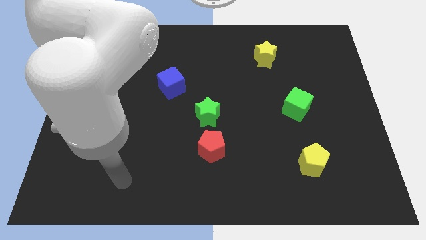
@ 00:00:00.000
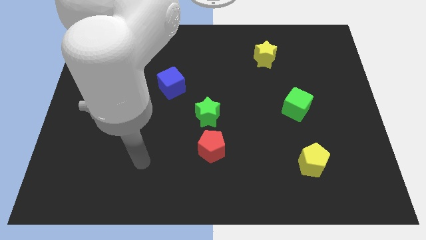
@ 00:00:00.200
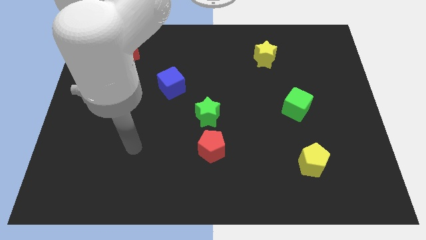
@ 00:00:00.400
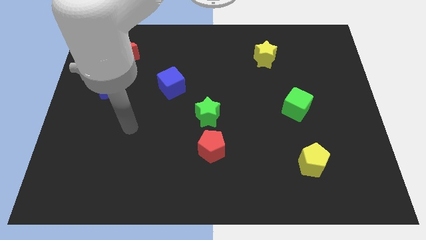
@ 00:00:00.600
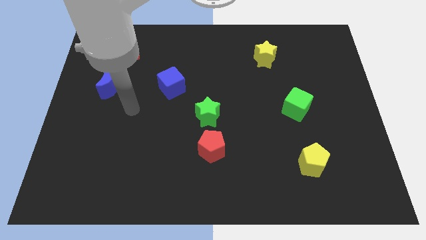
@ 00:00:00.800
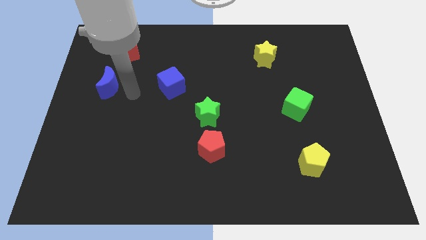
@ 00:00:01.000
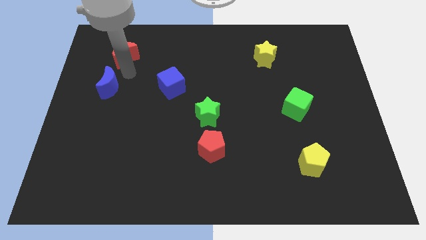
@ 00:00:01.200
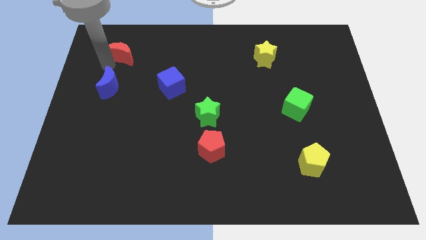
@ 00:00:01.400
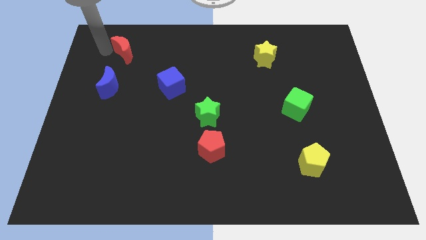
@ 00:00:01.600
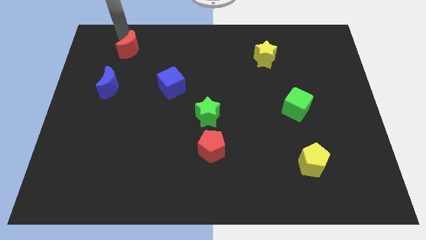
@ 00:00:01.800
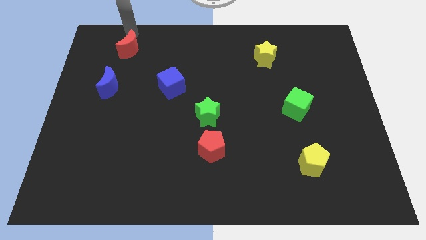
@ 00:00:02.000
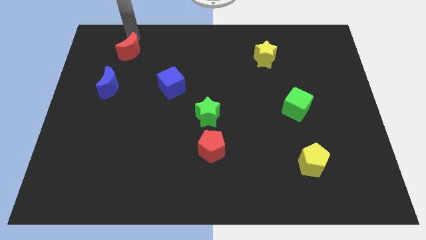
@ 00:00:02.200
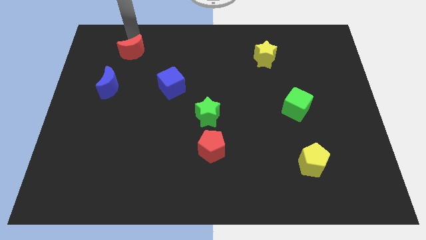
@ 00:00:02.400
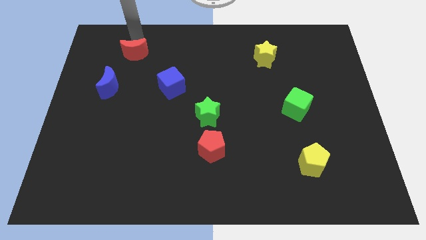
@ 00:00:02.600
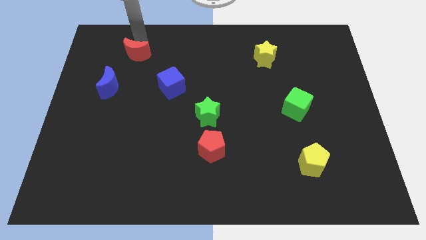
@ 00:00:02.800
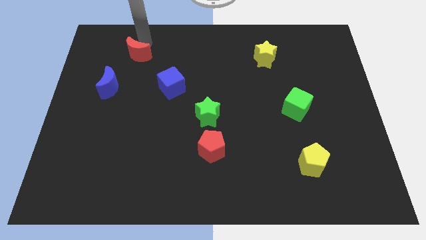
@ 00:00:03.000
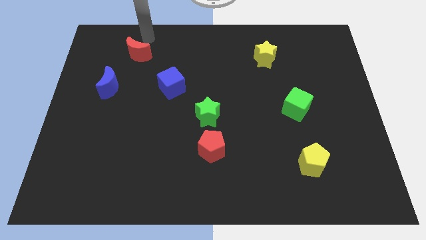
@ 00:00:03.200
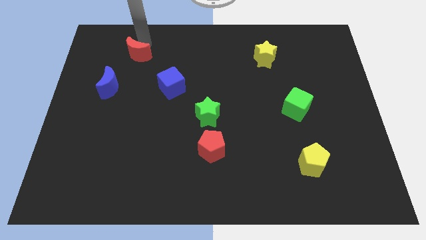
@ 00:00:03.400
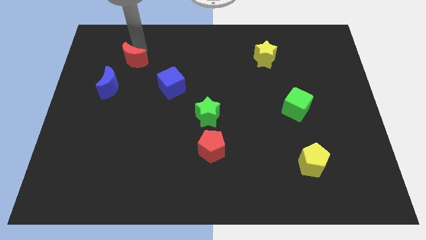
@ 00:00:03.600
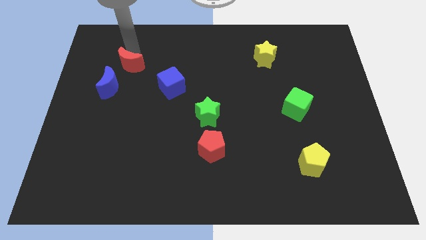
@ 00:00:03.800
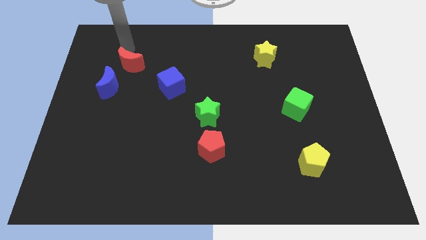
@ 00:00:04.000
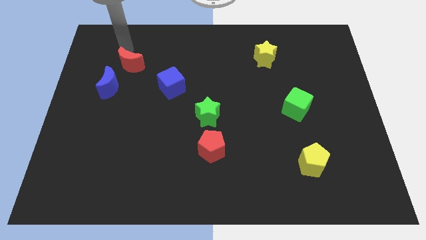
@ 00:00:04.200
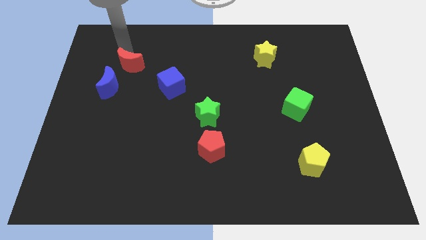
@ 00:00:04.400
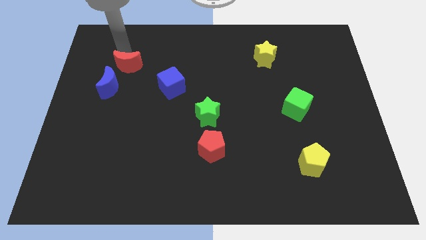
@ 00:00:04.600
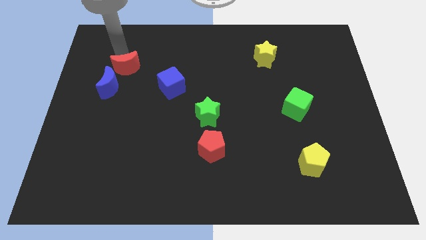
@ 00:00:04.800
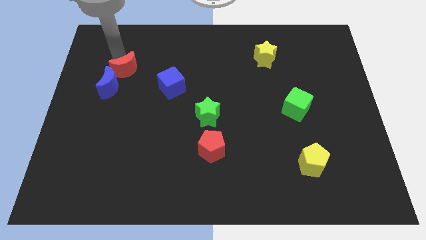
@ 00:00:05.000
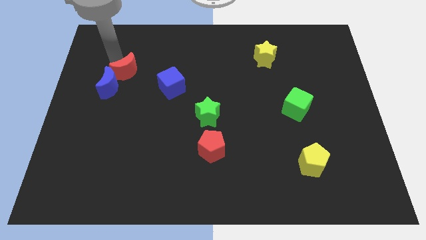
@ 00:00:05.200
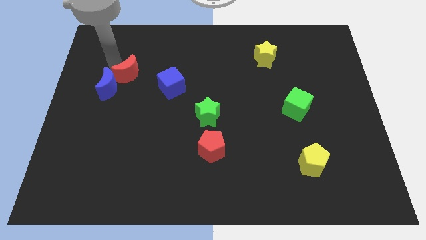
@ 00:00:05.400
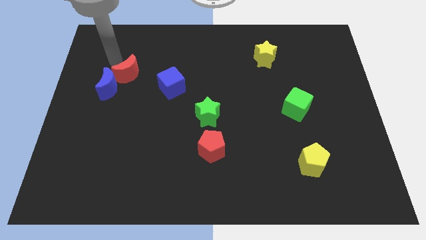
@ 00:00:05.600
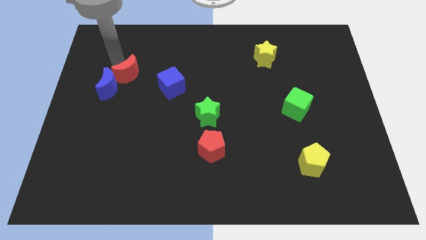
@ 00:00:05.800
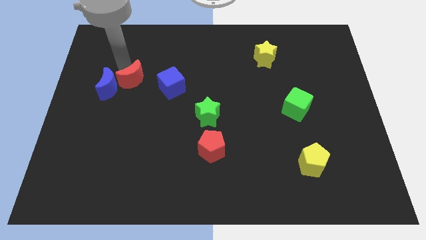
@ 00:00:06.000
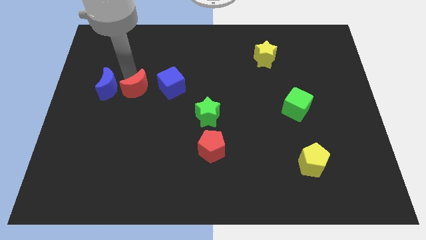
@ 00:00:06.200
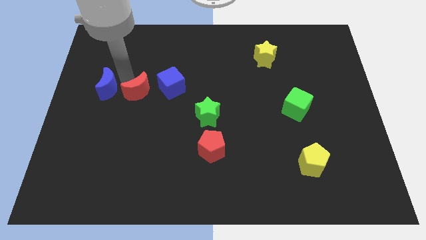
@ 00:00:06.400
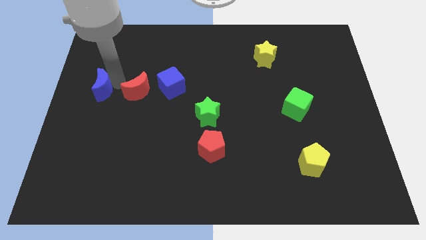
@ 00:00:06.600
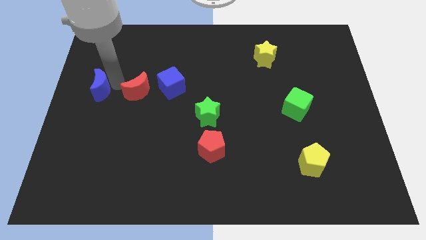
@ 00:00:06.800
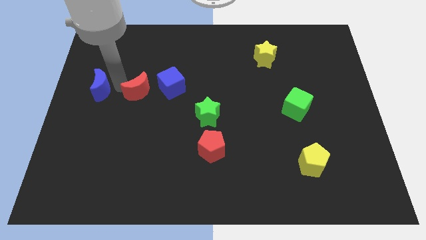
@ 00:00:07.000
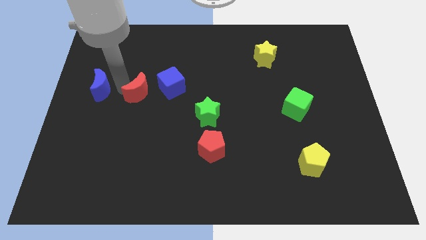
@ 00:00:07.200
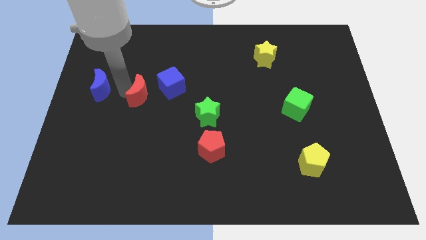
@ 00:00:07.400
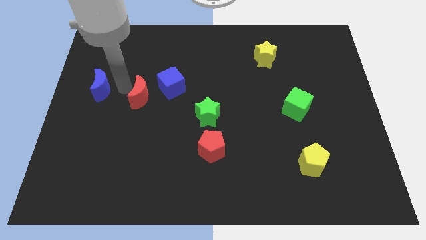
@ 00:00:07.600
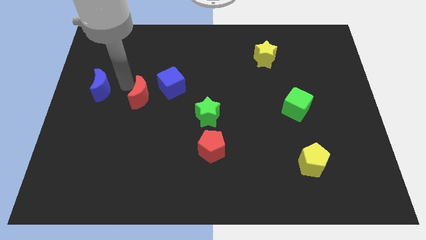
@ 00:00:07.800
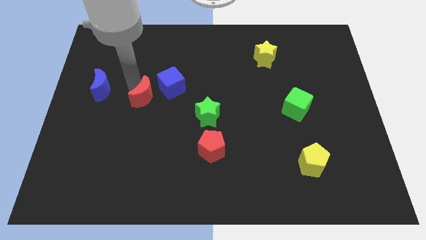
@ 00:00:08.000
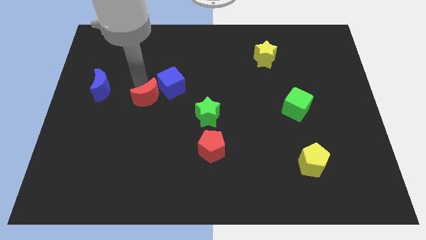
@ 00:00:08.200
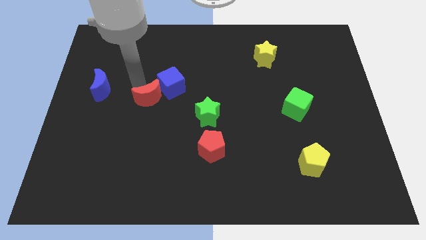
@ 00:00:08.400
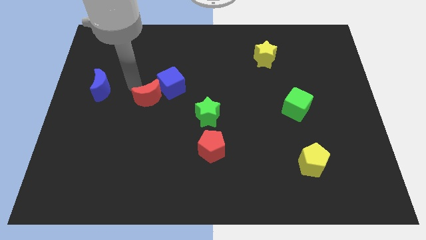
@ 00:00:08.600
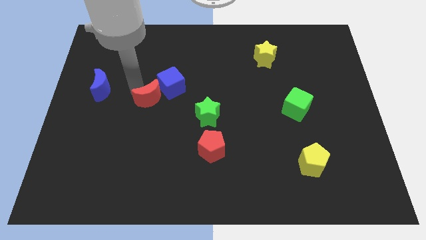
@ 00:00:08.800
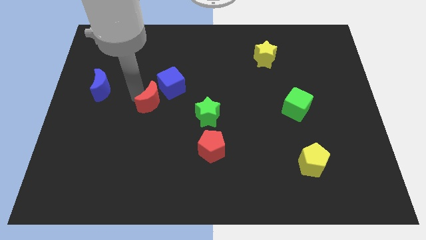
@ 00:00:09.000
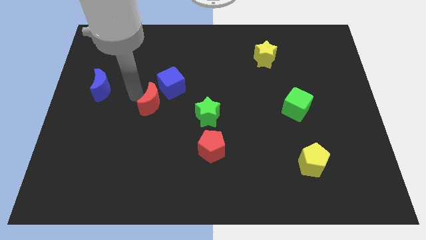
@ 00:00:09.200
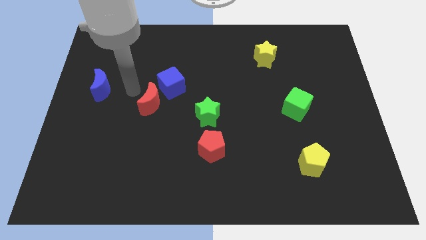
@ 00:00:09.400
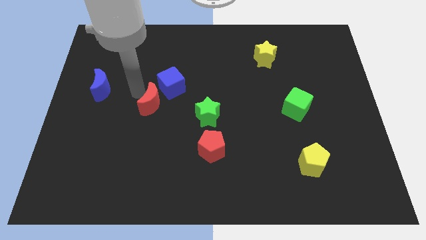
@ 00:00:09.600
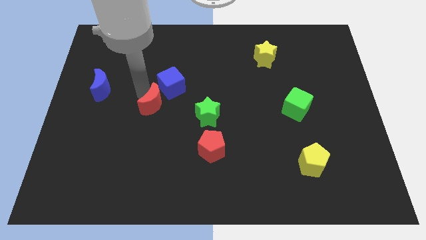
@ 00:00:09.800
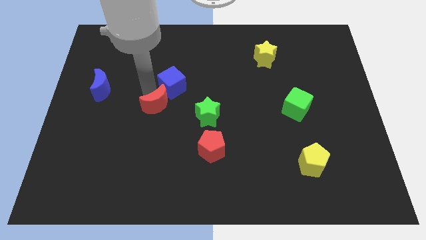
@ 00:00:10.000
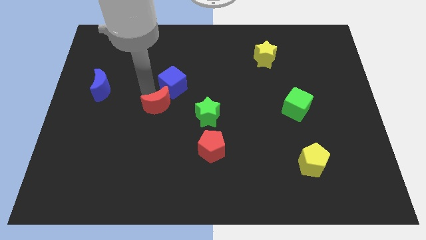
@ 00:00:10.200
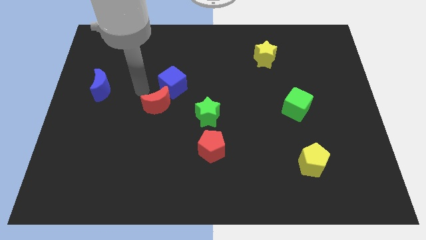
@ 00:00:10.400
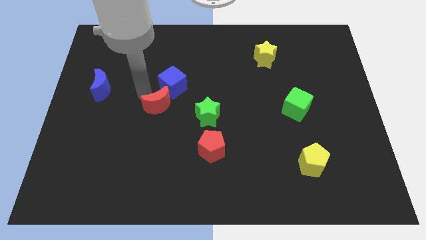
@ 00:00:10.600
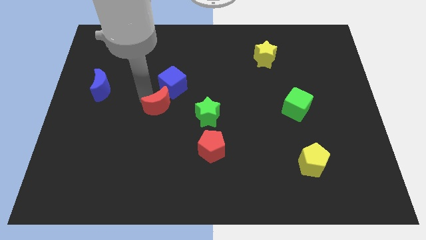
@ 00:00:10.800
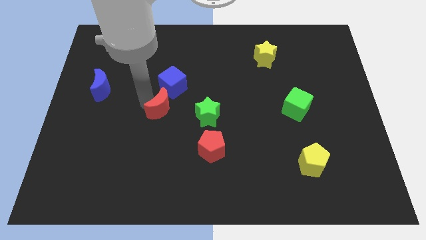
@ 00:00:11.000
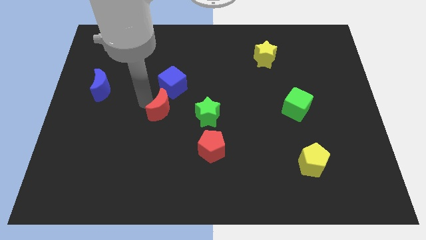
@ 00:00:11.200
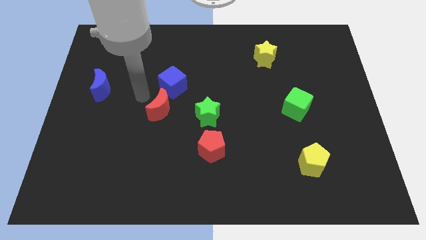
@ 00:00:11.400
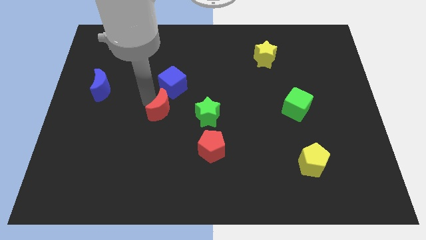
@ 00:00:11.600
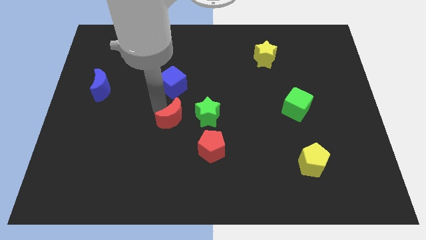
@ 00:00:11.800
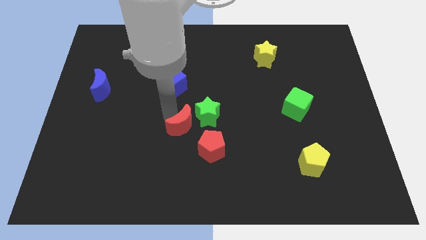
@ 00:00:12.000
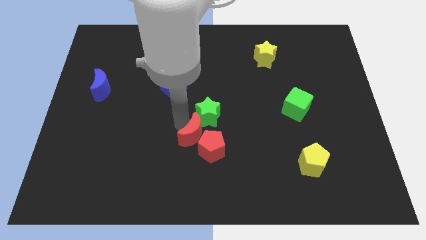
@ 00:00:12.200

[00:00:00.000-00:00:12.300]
put the red moon to the red pentagon

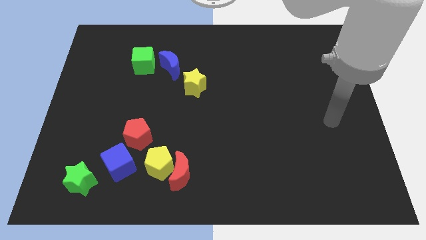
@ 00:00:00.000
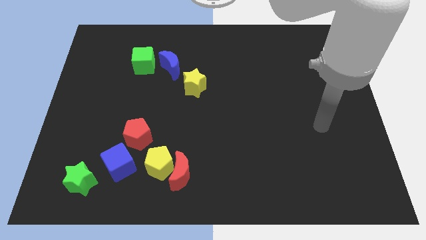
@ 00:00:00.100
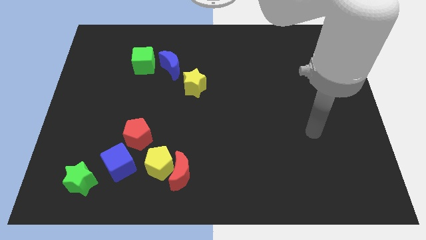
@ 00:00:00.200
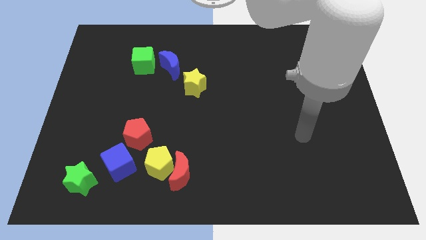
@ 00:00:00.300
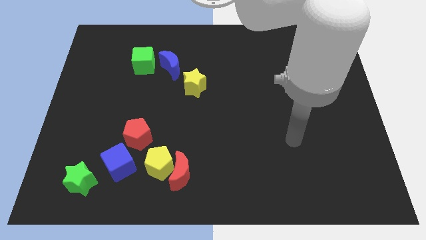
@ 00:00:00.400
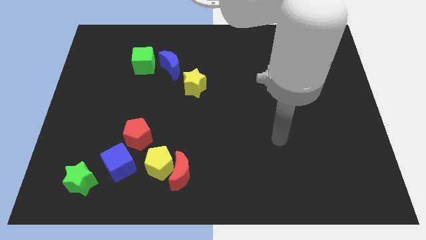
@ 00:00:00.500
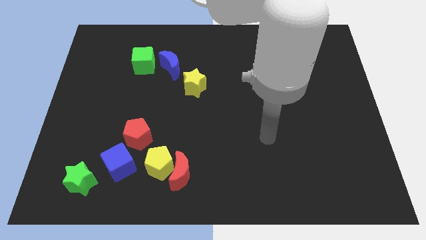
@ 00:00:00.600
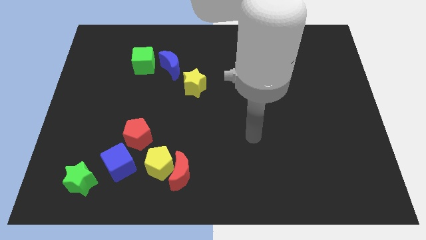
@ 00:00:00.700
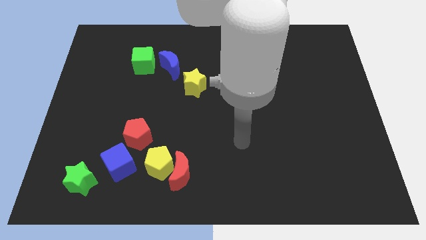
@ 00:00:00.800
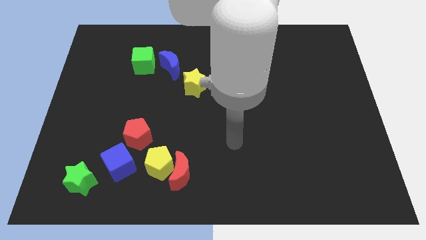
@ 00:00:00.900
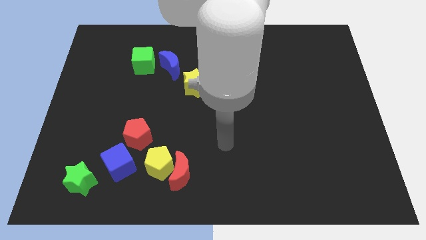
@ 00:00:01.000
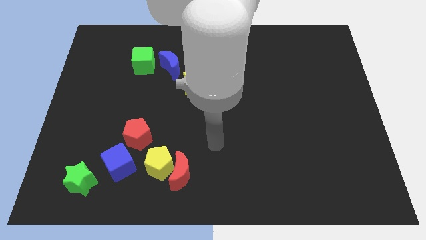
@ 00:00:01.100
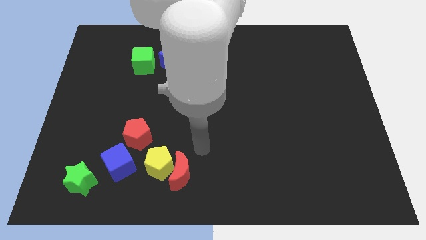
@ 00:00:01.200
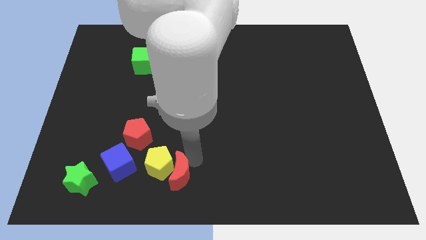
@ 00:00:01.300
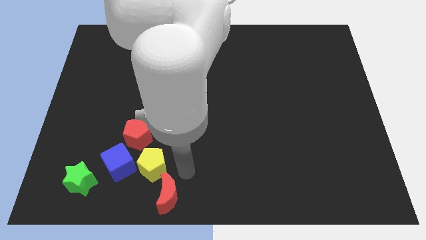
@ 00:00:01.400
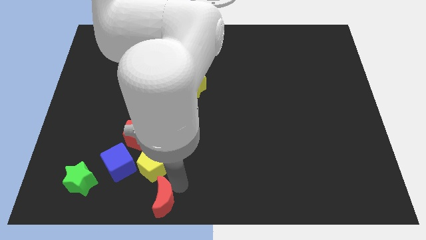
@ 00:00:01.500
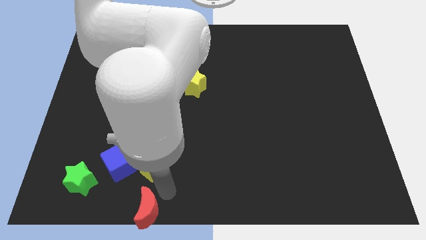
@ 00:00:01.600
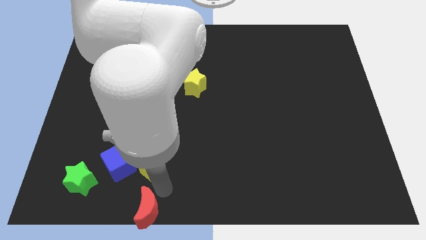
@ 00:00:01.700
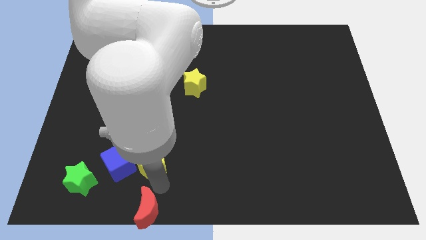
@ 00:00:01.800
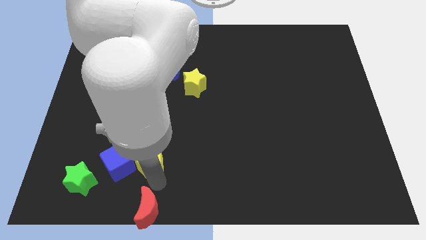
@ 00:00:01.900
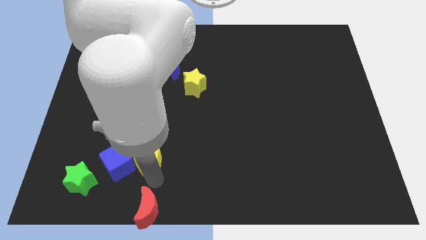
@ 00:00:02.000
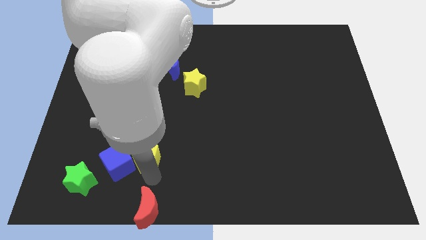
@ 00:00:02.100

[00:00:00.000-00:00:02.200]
move the yellow pentagon next to the red pentagon
